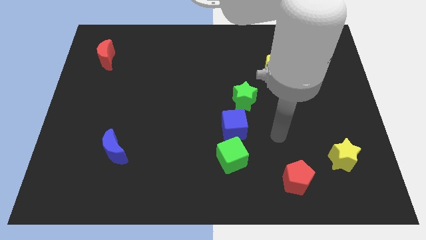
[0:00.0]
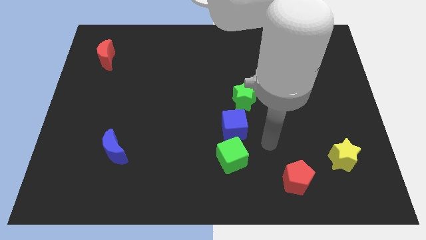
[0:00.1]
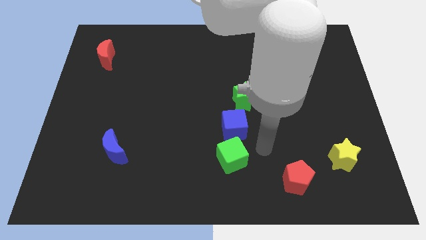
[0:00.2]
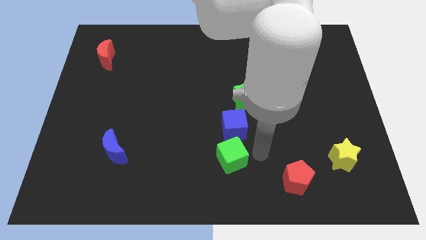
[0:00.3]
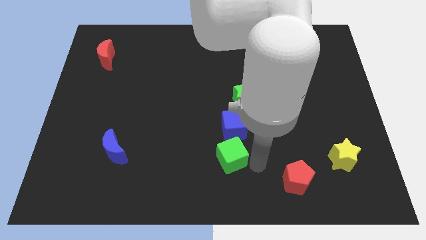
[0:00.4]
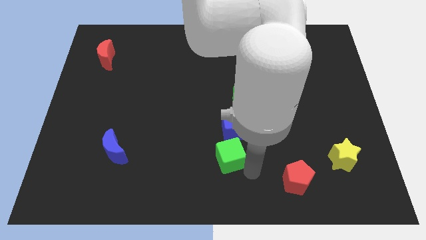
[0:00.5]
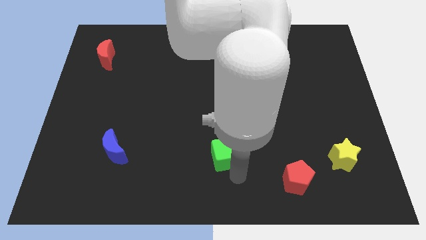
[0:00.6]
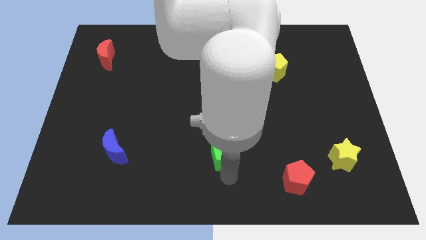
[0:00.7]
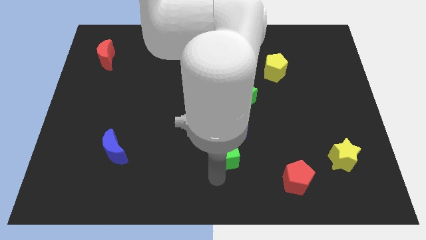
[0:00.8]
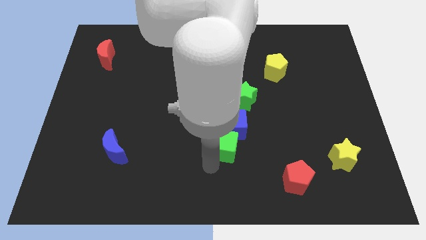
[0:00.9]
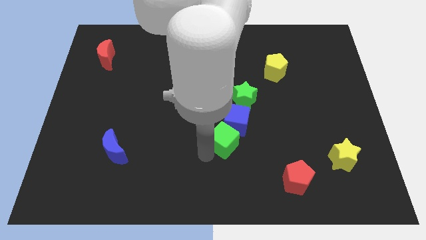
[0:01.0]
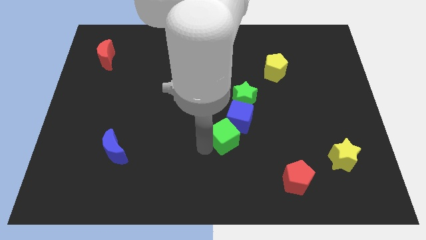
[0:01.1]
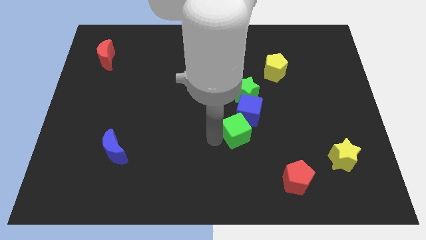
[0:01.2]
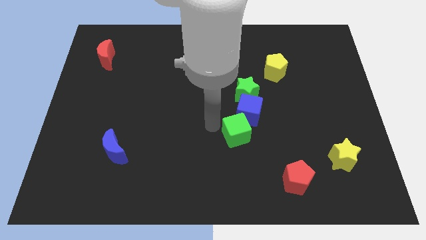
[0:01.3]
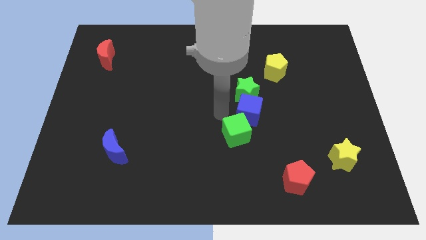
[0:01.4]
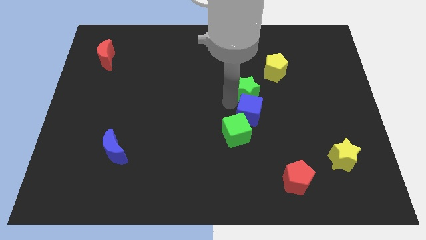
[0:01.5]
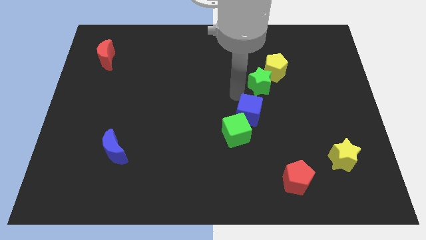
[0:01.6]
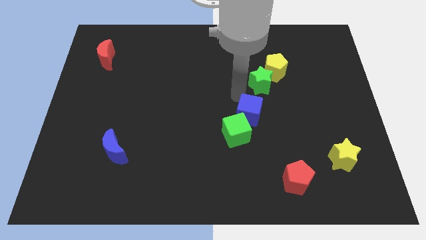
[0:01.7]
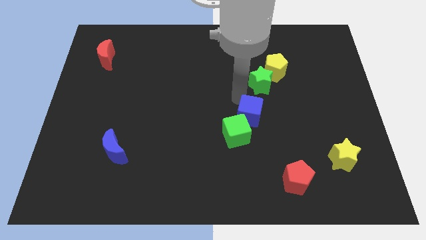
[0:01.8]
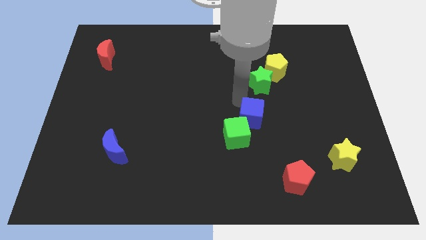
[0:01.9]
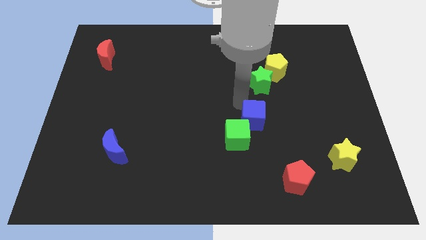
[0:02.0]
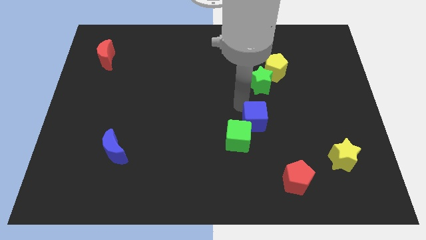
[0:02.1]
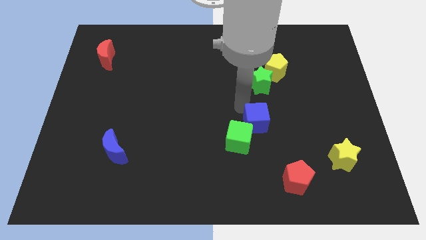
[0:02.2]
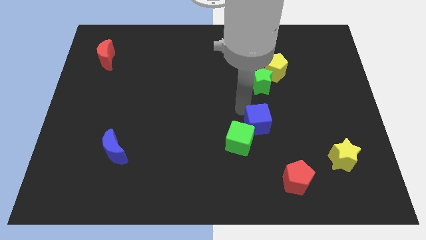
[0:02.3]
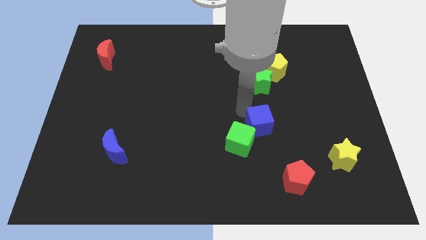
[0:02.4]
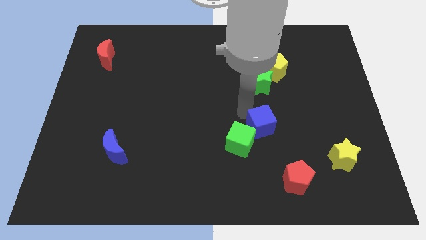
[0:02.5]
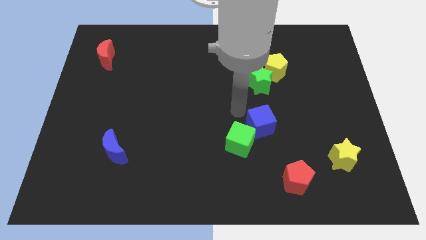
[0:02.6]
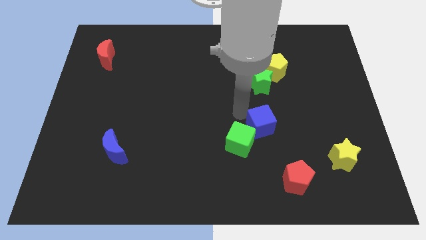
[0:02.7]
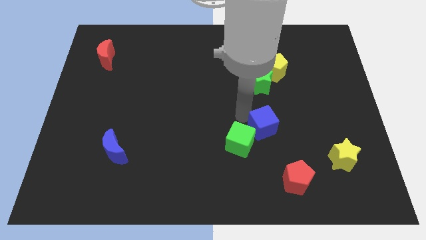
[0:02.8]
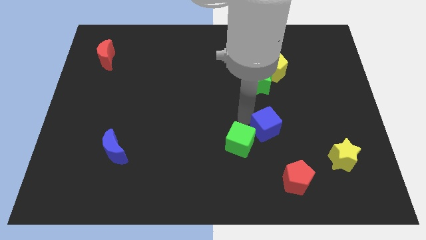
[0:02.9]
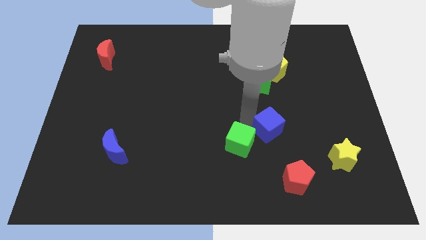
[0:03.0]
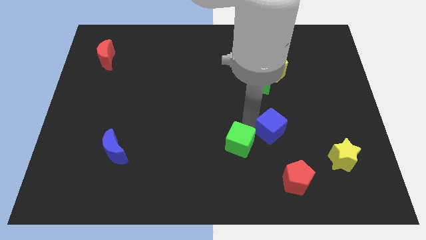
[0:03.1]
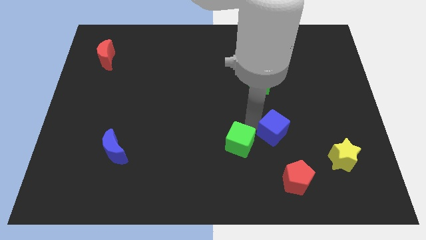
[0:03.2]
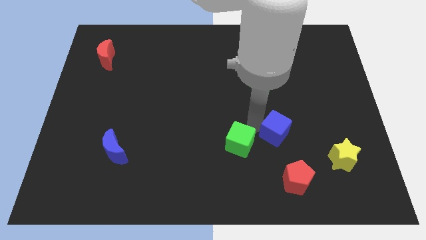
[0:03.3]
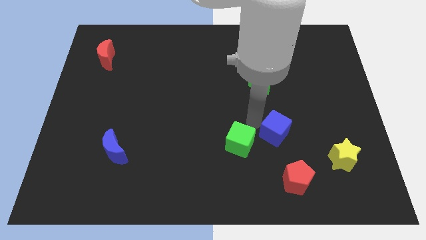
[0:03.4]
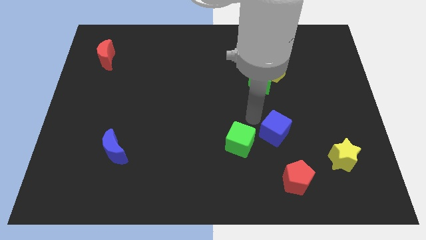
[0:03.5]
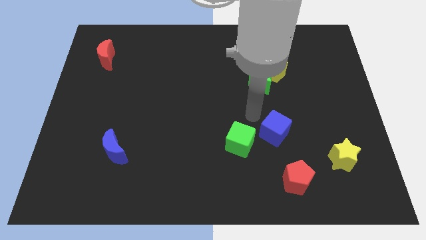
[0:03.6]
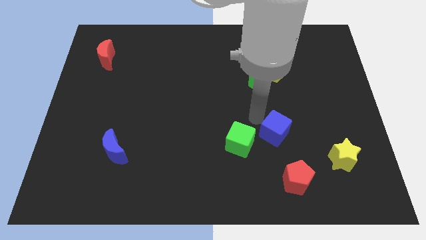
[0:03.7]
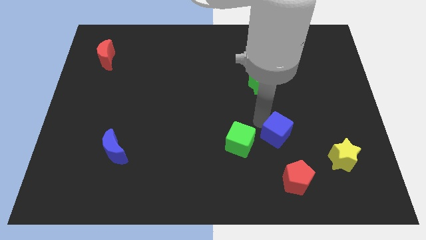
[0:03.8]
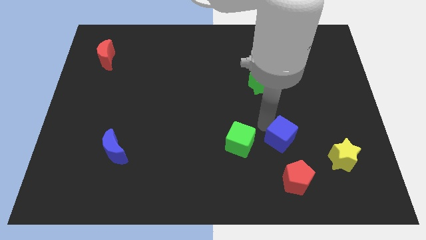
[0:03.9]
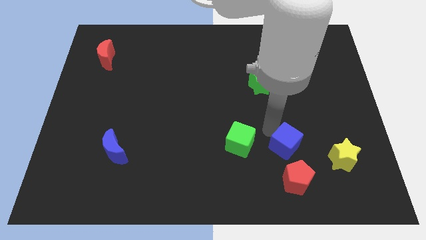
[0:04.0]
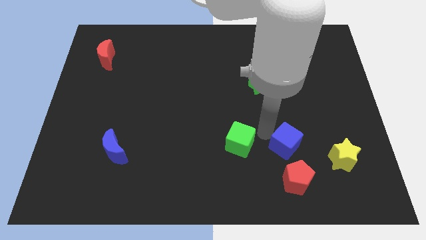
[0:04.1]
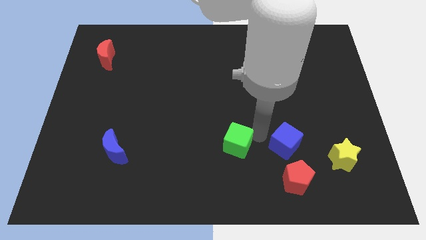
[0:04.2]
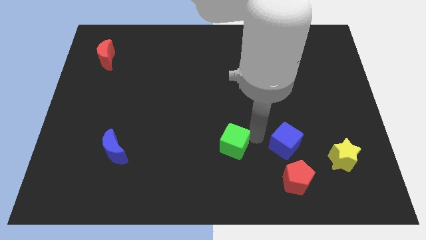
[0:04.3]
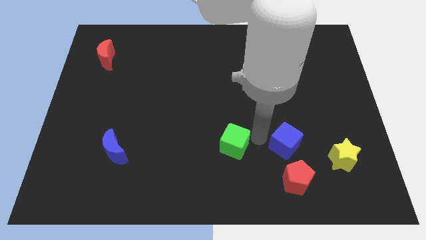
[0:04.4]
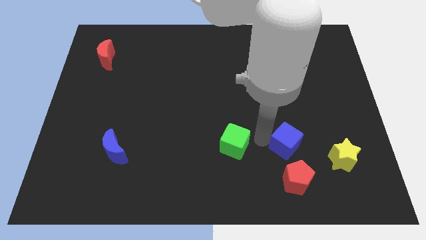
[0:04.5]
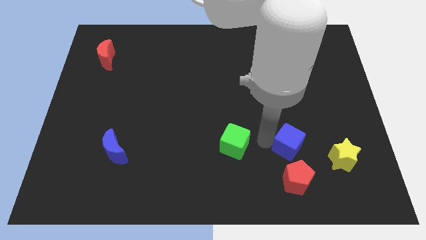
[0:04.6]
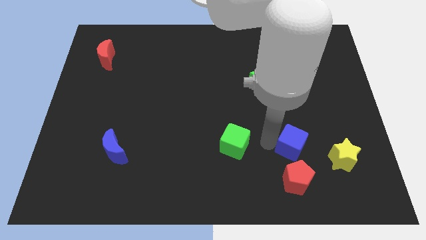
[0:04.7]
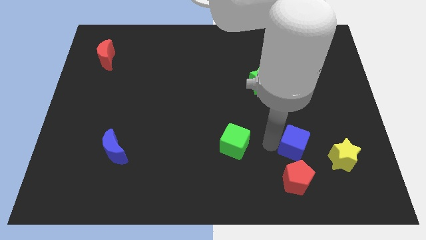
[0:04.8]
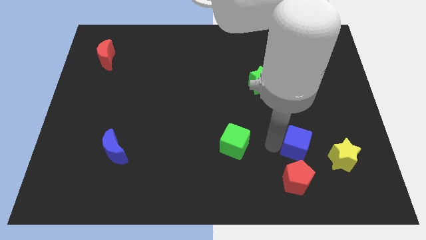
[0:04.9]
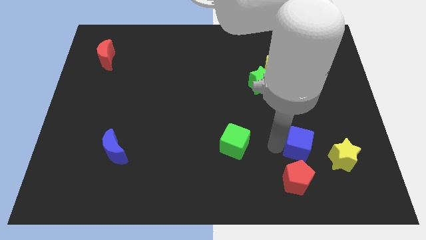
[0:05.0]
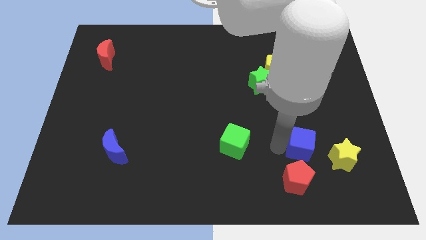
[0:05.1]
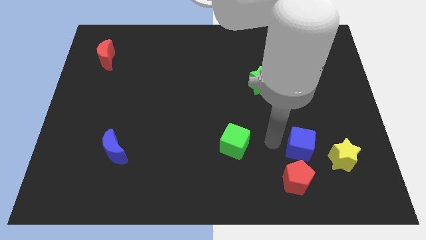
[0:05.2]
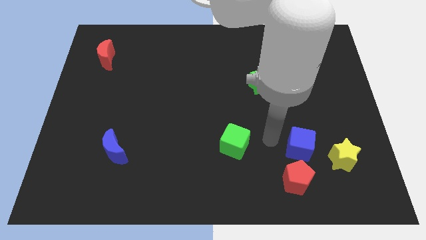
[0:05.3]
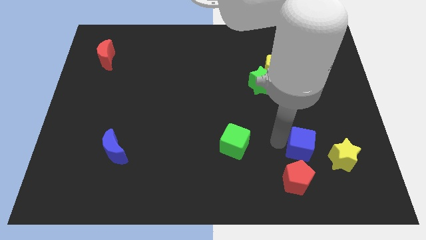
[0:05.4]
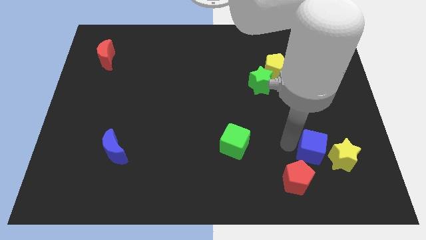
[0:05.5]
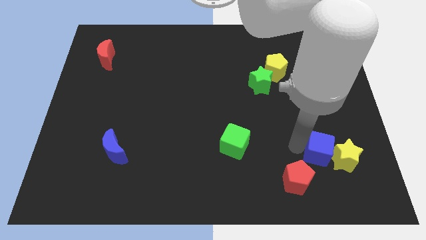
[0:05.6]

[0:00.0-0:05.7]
push the blue cube close to the yellow star

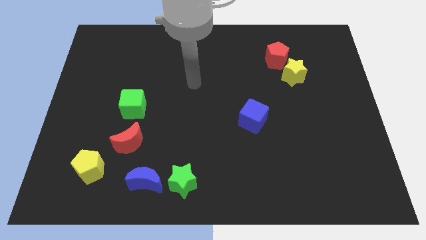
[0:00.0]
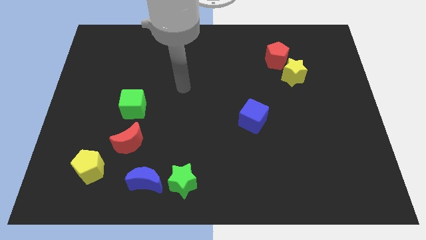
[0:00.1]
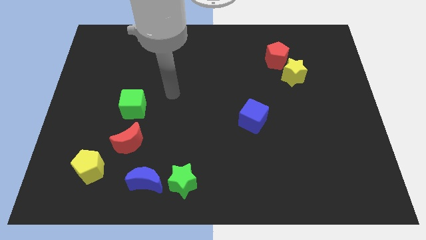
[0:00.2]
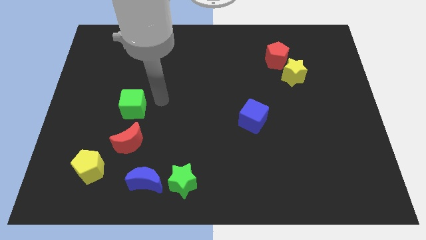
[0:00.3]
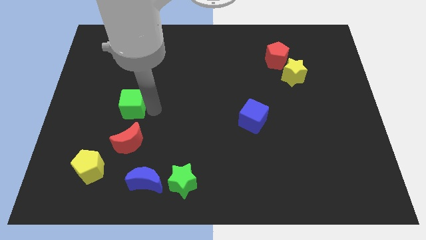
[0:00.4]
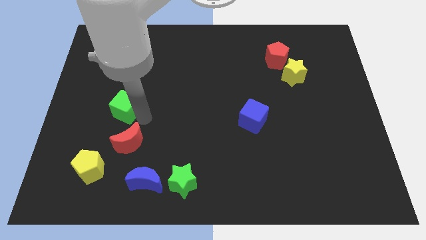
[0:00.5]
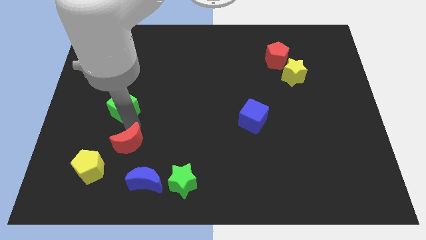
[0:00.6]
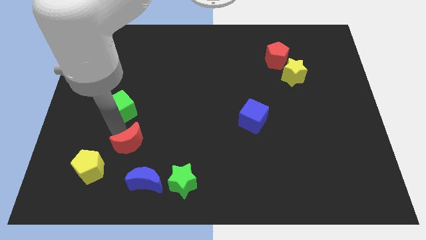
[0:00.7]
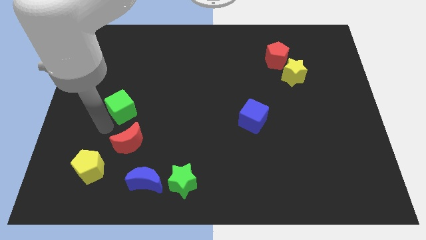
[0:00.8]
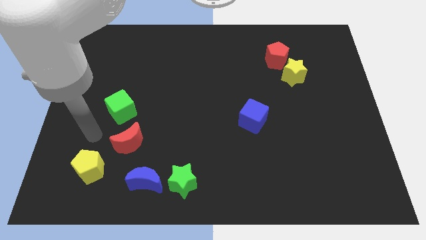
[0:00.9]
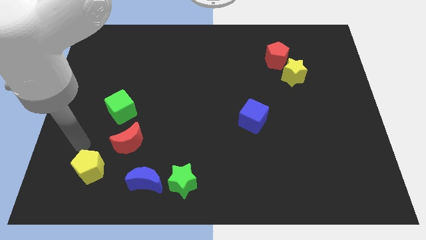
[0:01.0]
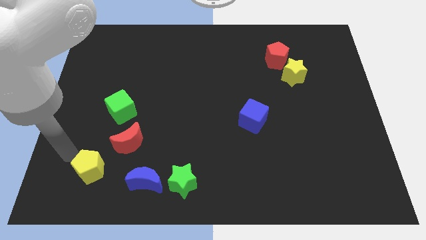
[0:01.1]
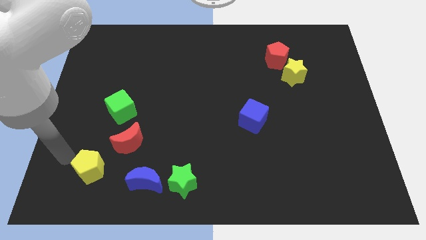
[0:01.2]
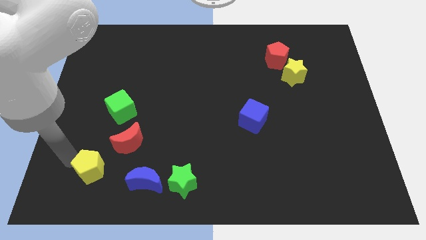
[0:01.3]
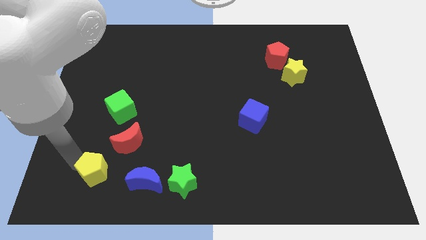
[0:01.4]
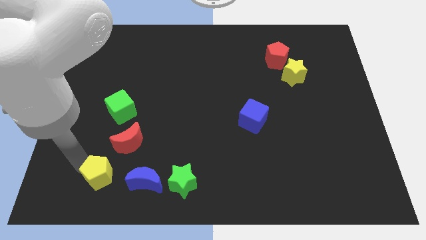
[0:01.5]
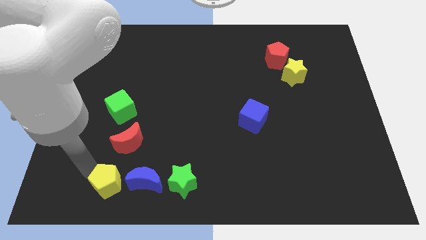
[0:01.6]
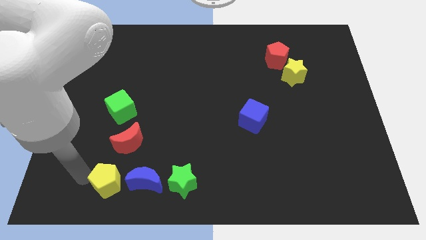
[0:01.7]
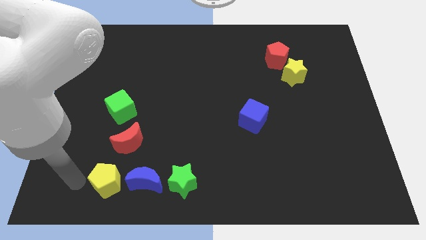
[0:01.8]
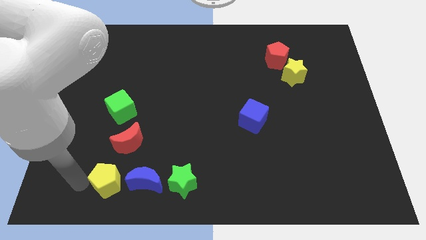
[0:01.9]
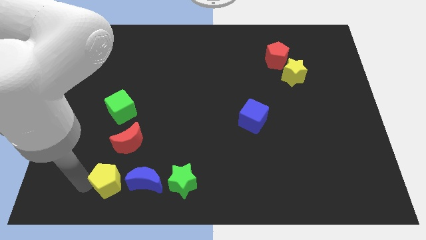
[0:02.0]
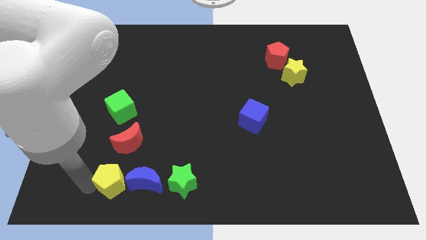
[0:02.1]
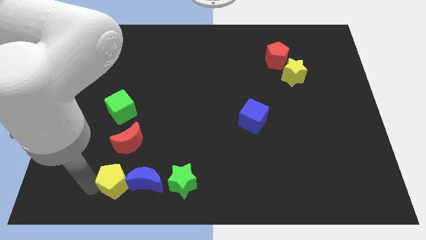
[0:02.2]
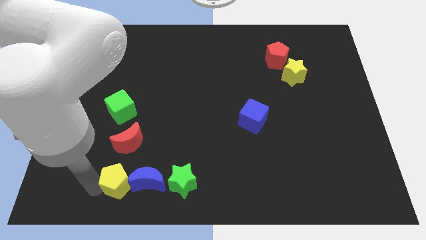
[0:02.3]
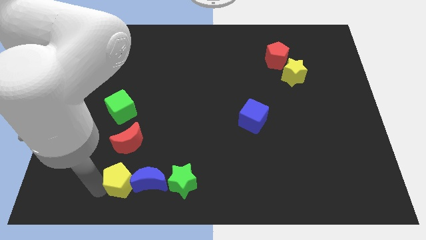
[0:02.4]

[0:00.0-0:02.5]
push the yellow pentagon to the blue moon

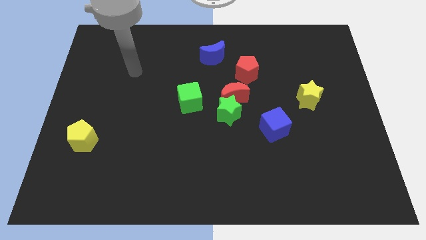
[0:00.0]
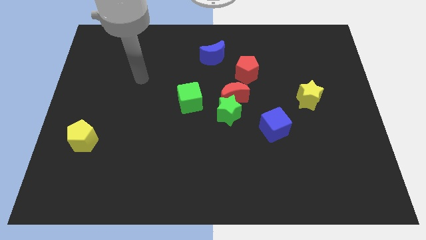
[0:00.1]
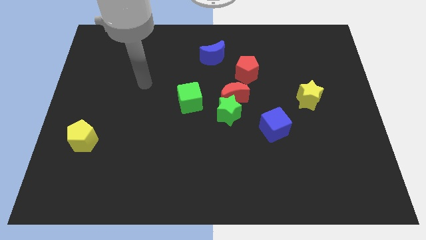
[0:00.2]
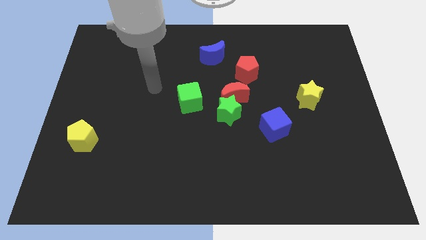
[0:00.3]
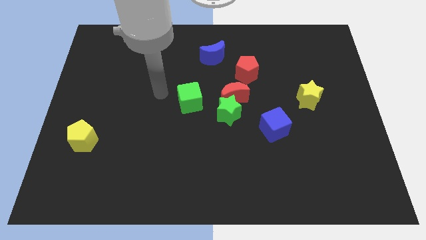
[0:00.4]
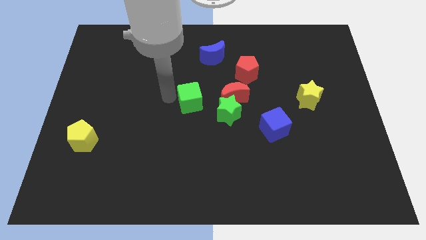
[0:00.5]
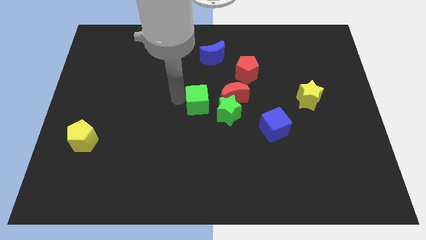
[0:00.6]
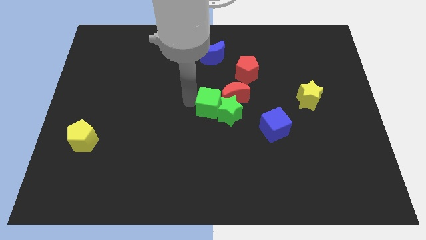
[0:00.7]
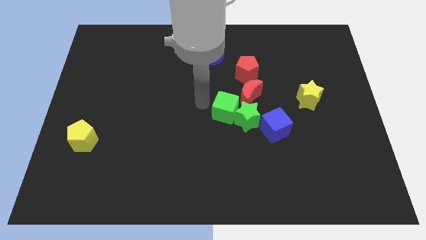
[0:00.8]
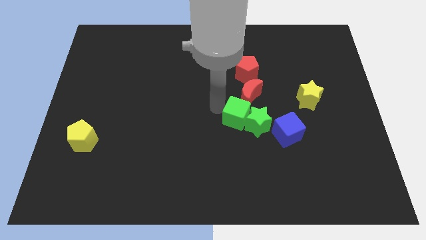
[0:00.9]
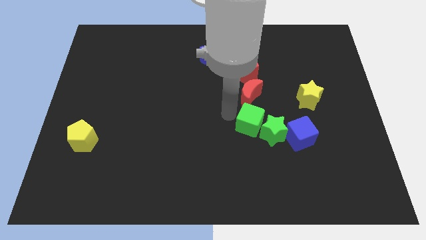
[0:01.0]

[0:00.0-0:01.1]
move the green star to the blue cube
